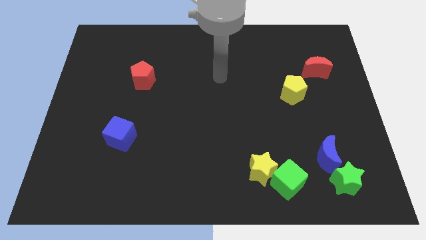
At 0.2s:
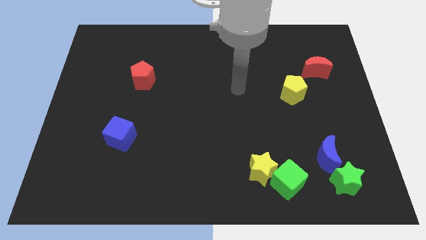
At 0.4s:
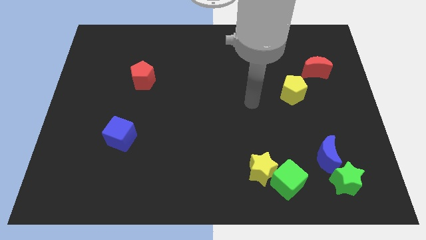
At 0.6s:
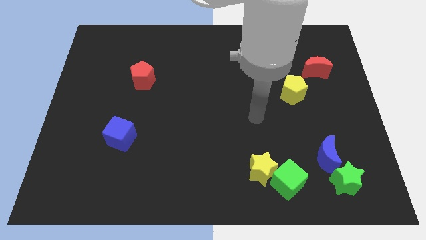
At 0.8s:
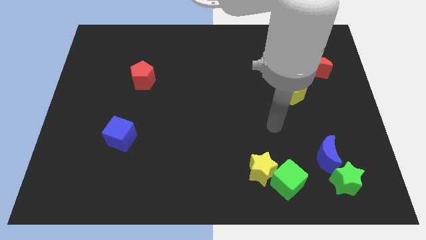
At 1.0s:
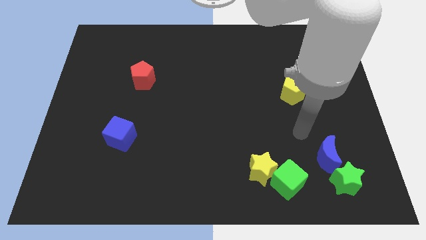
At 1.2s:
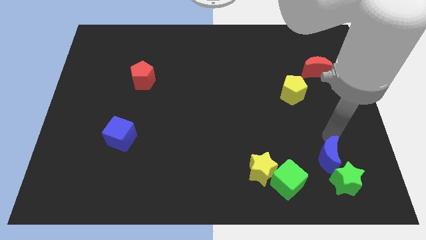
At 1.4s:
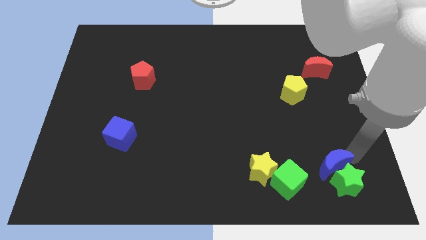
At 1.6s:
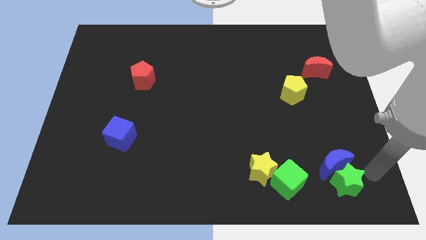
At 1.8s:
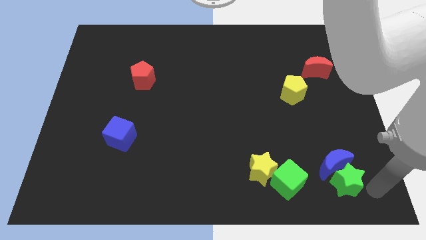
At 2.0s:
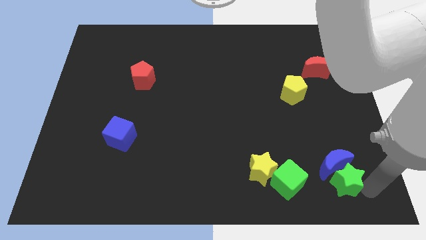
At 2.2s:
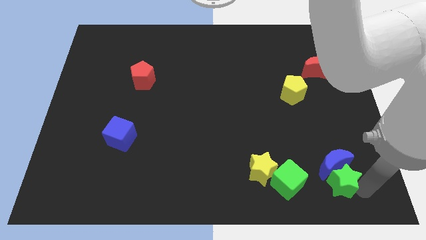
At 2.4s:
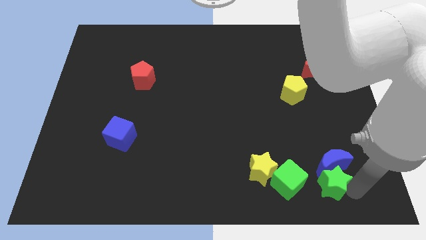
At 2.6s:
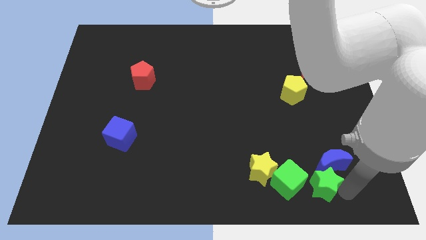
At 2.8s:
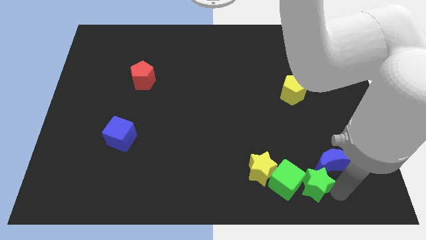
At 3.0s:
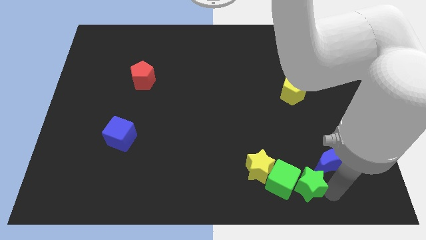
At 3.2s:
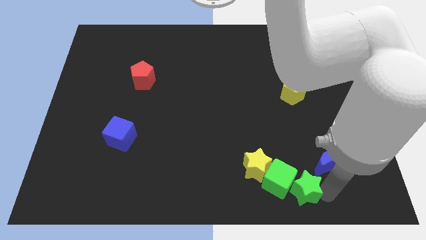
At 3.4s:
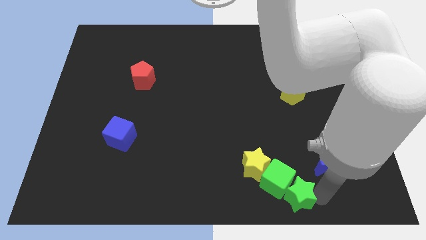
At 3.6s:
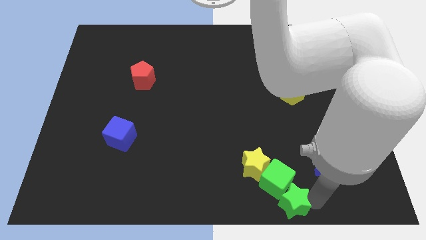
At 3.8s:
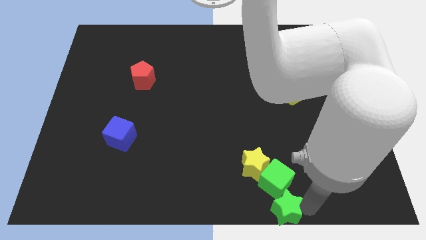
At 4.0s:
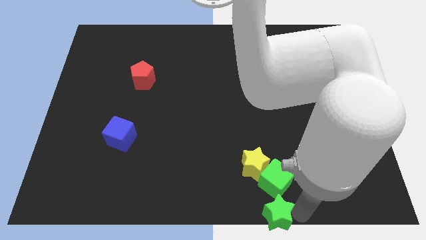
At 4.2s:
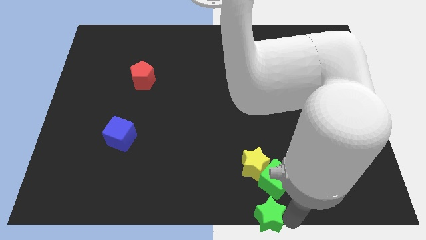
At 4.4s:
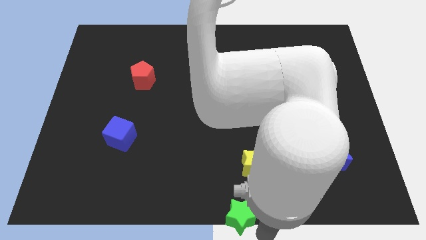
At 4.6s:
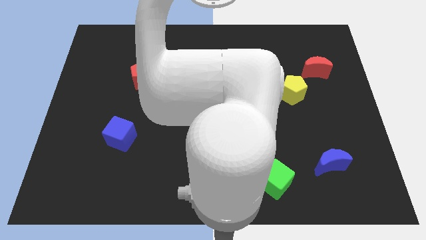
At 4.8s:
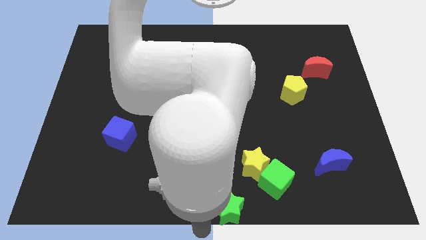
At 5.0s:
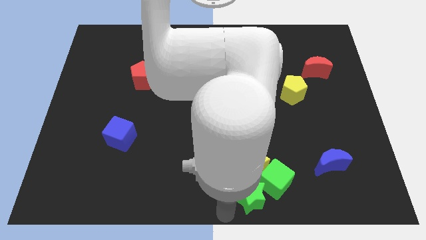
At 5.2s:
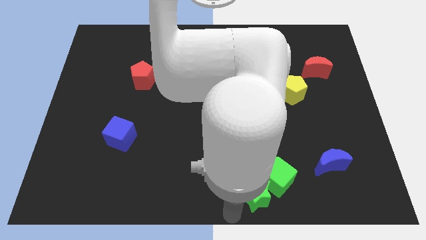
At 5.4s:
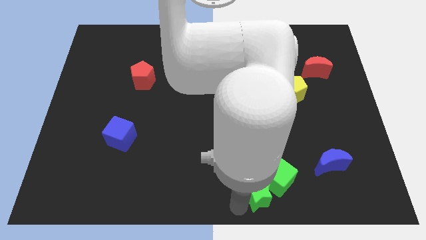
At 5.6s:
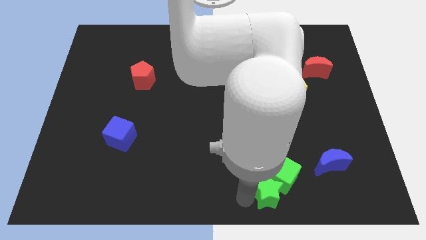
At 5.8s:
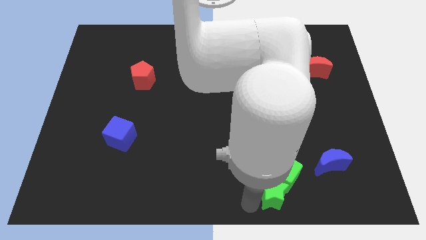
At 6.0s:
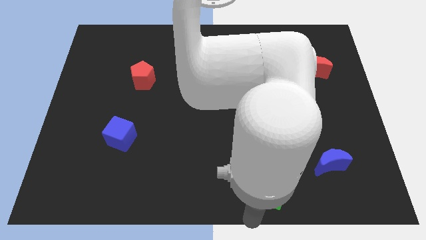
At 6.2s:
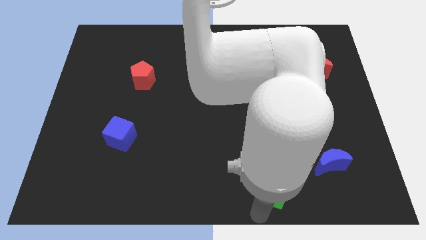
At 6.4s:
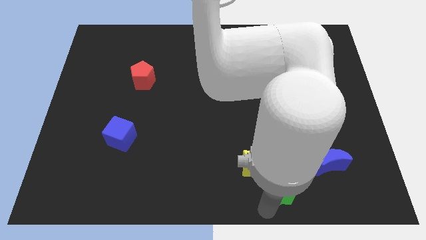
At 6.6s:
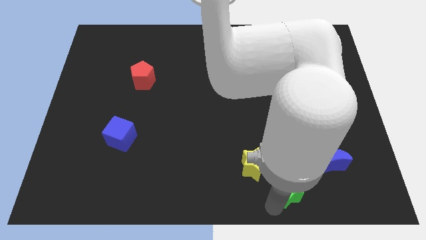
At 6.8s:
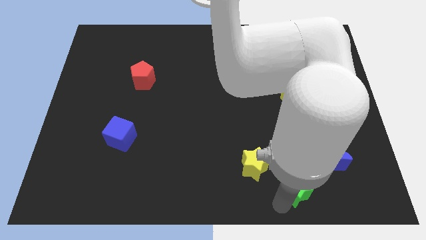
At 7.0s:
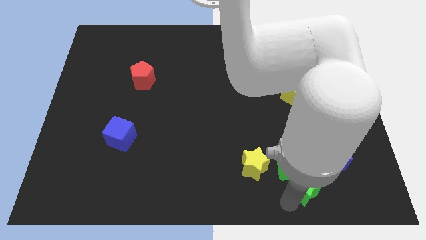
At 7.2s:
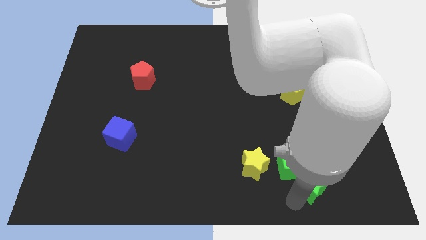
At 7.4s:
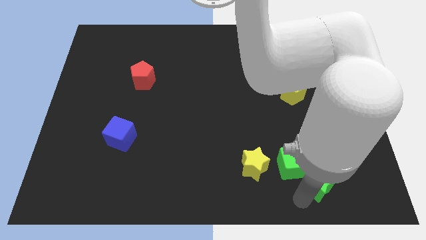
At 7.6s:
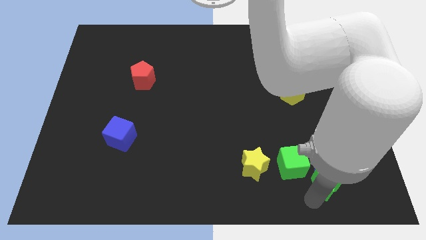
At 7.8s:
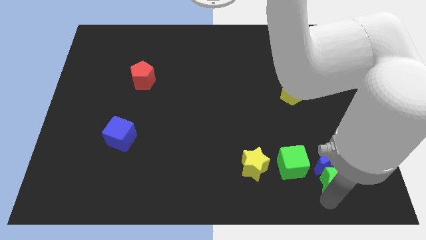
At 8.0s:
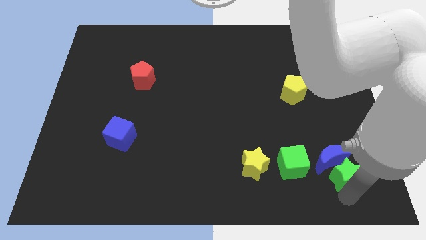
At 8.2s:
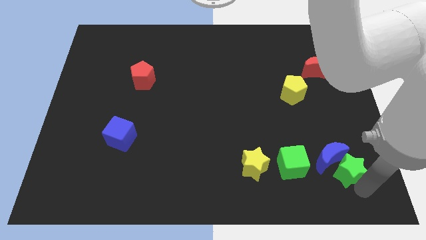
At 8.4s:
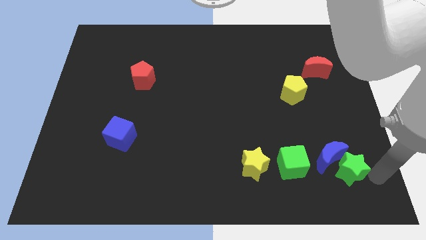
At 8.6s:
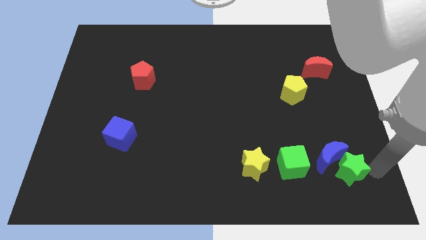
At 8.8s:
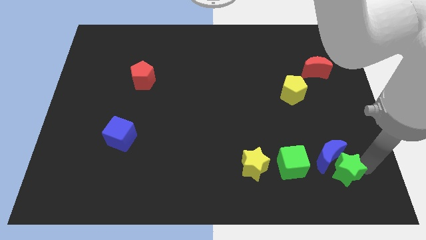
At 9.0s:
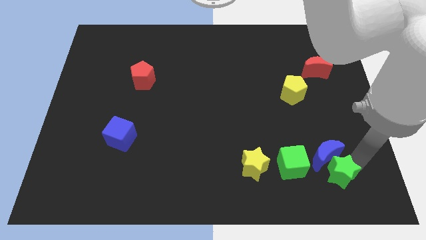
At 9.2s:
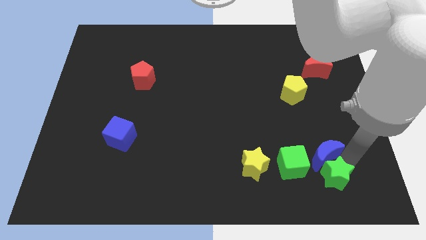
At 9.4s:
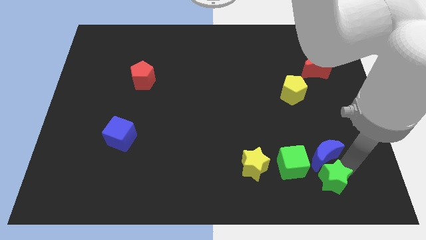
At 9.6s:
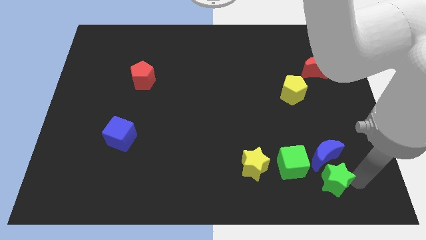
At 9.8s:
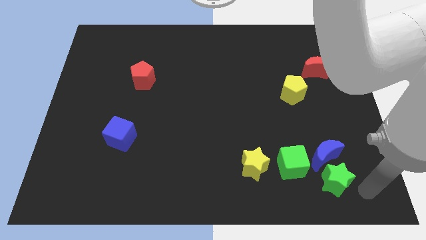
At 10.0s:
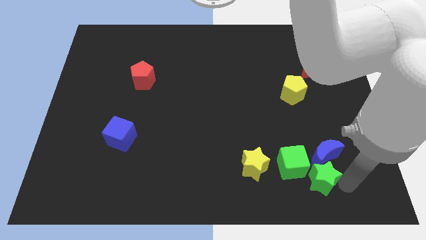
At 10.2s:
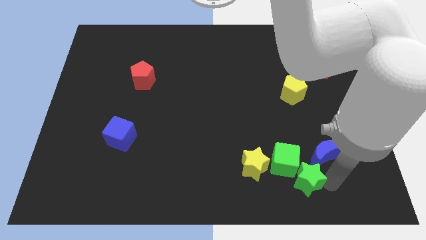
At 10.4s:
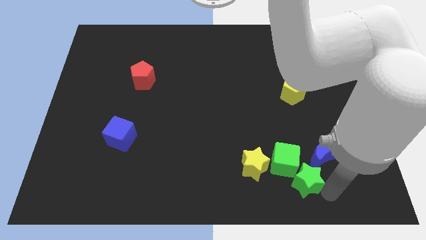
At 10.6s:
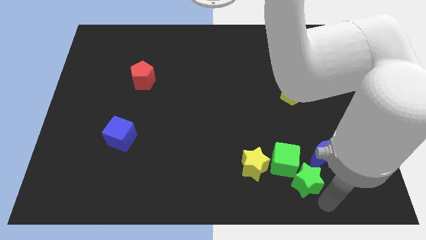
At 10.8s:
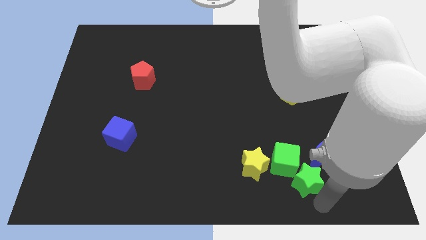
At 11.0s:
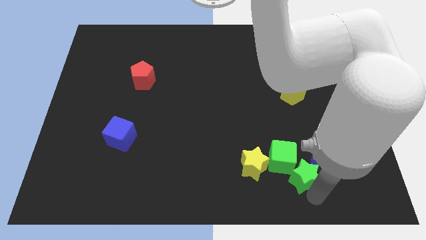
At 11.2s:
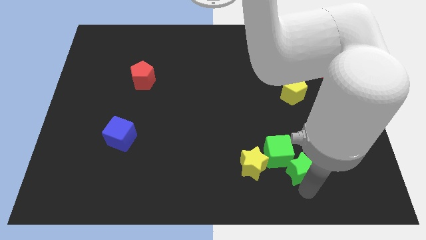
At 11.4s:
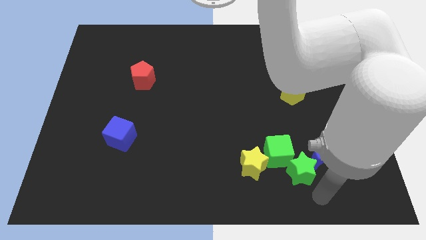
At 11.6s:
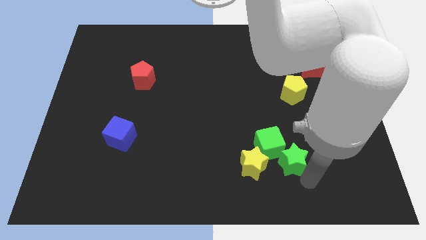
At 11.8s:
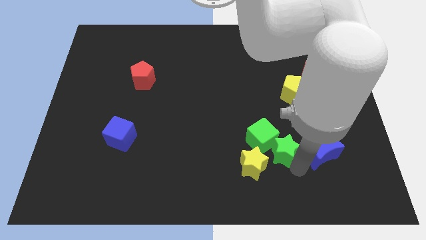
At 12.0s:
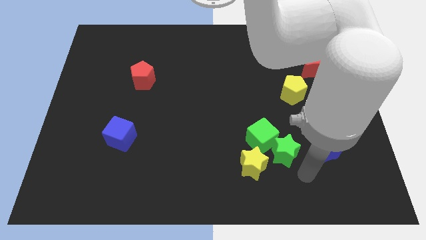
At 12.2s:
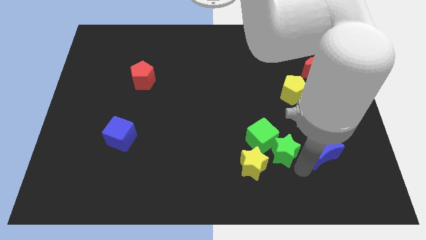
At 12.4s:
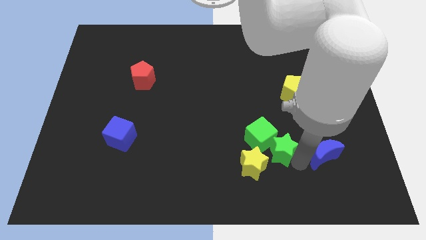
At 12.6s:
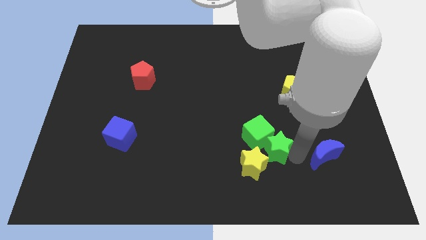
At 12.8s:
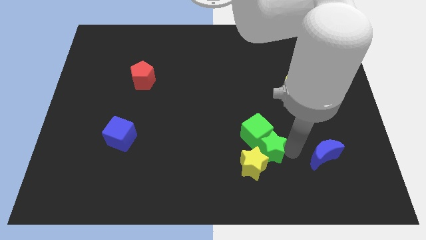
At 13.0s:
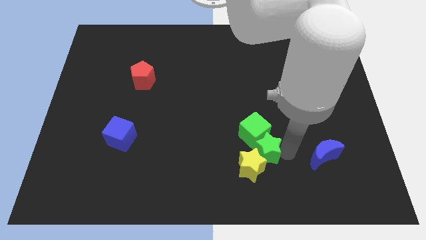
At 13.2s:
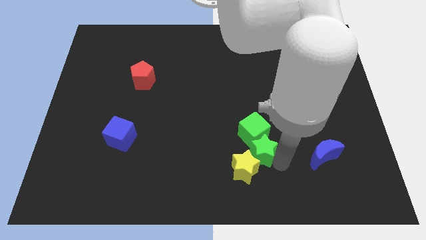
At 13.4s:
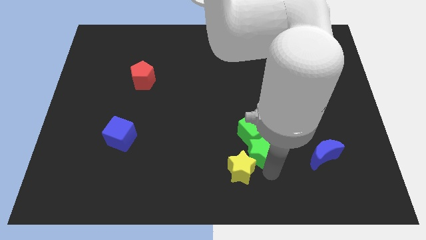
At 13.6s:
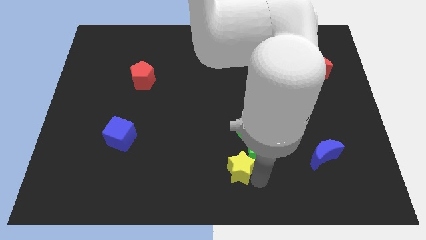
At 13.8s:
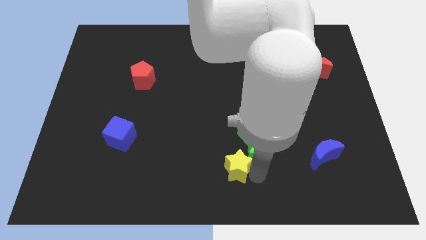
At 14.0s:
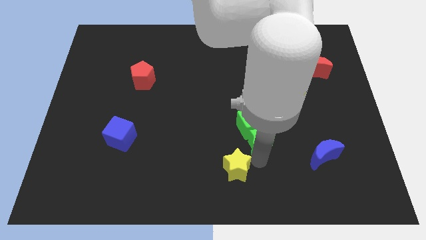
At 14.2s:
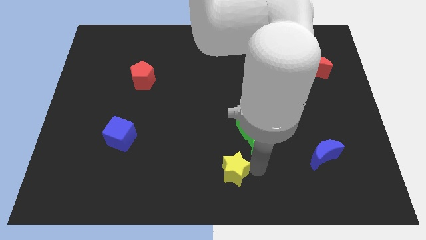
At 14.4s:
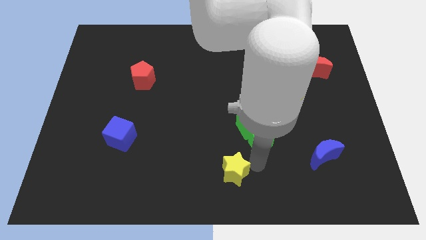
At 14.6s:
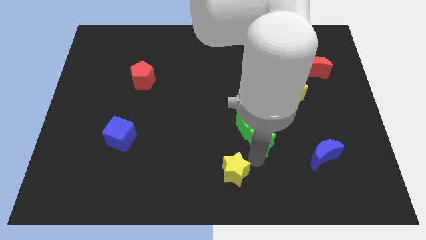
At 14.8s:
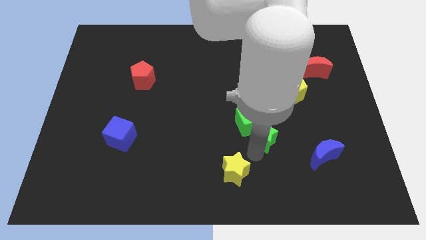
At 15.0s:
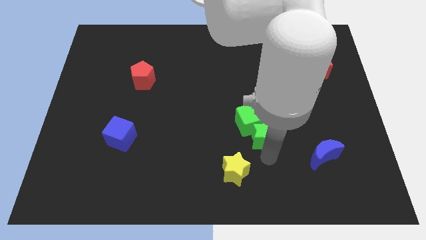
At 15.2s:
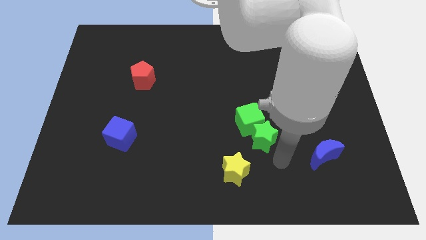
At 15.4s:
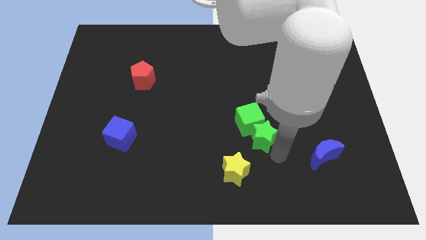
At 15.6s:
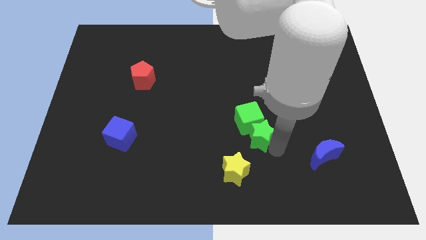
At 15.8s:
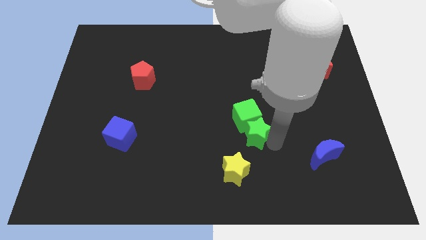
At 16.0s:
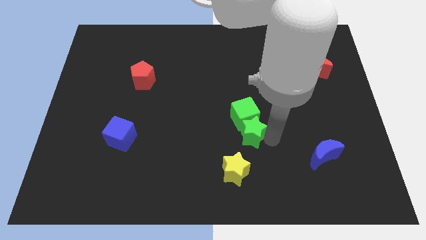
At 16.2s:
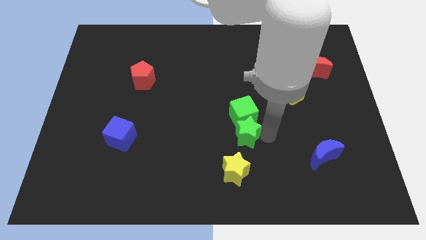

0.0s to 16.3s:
move the green star to the middle of the board
